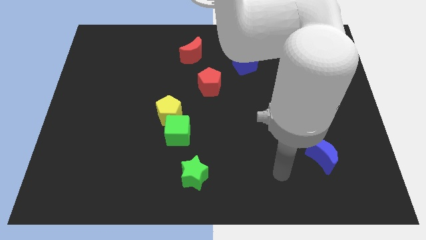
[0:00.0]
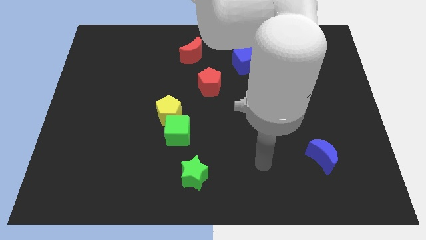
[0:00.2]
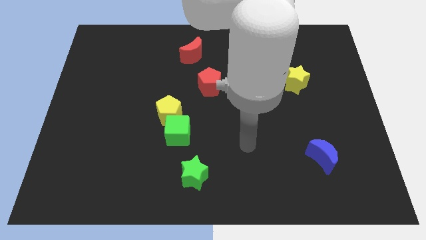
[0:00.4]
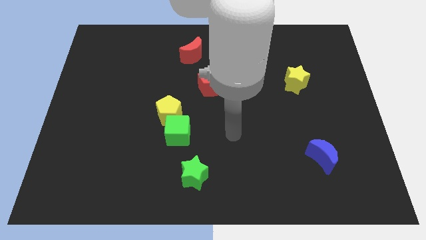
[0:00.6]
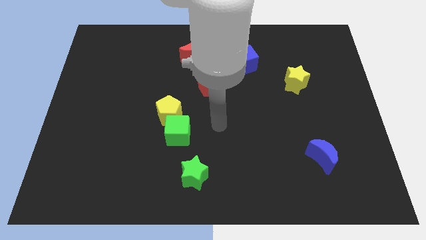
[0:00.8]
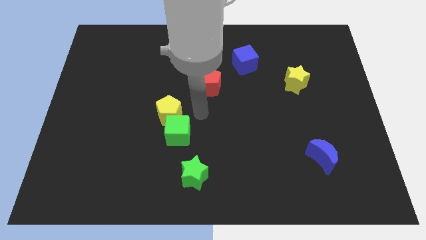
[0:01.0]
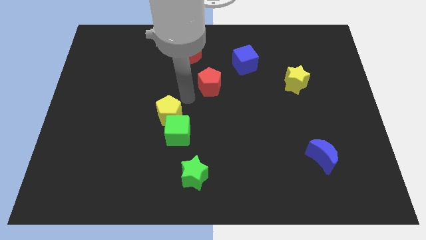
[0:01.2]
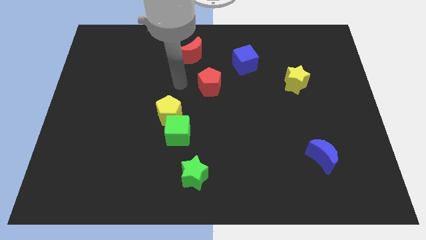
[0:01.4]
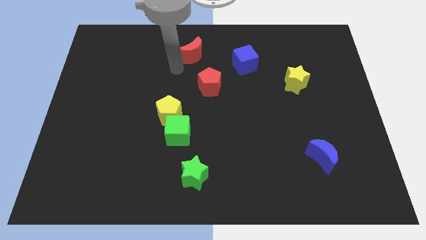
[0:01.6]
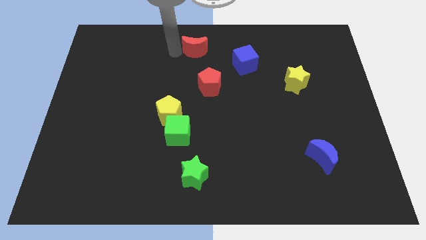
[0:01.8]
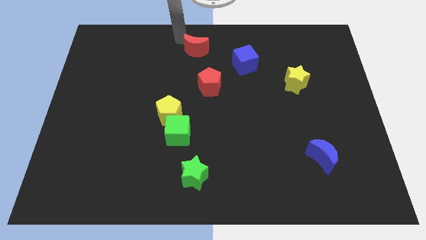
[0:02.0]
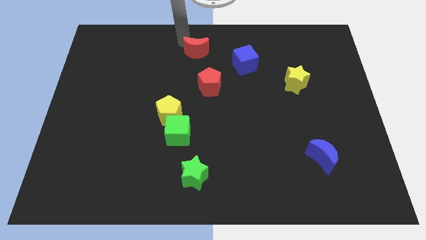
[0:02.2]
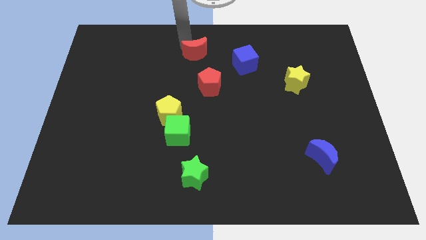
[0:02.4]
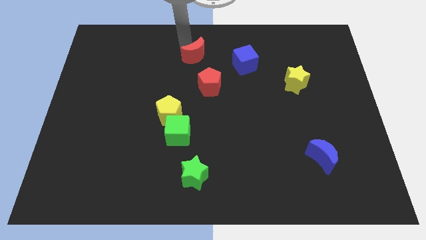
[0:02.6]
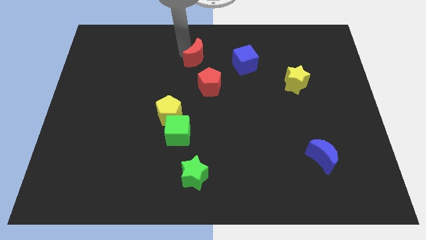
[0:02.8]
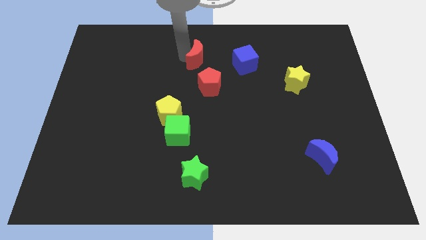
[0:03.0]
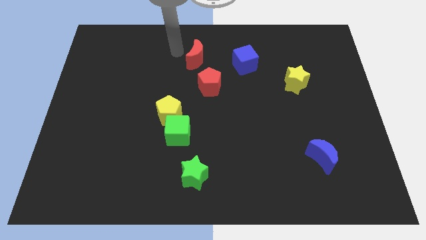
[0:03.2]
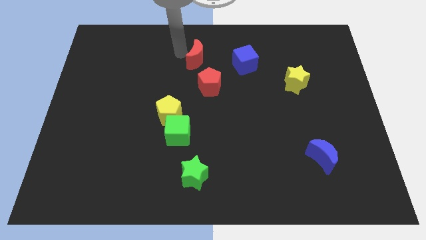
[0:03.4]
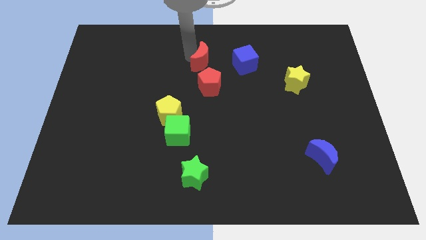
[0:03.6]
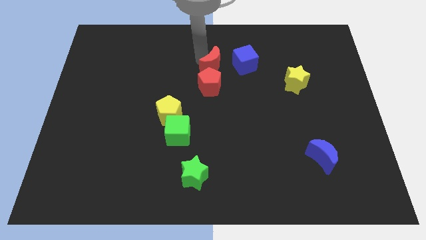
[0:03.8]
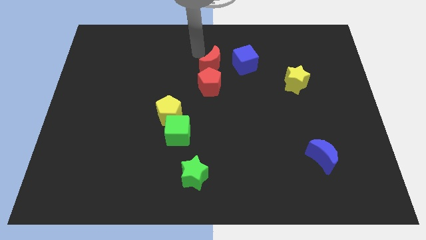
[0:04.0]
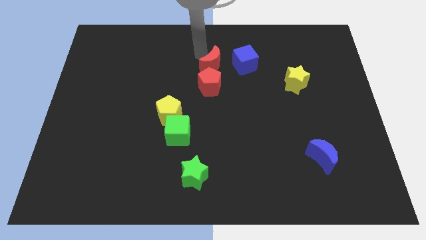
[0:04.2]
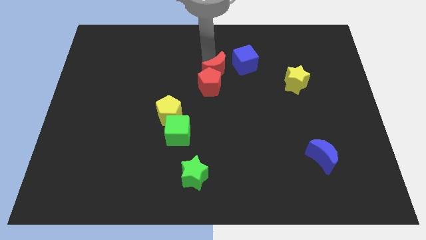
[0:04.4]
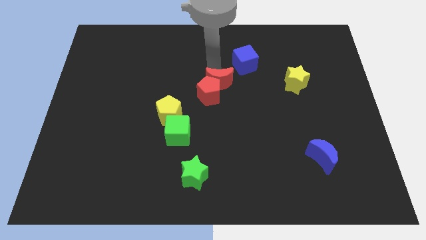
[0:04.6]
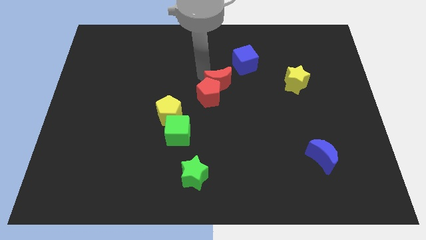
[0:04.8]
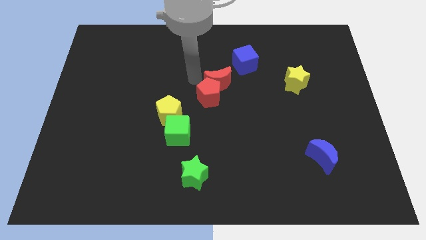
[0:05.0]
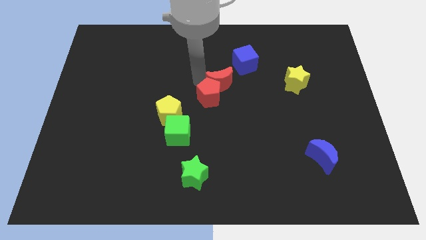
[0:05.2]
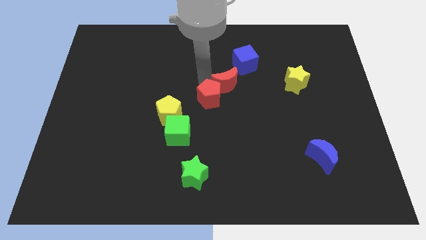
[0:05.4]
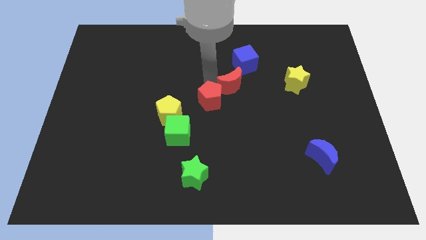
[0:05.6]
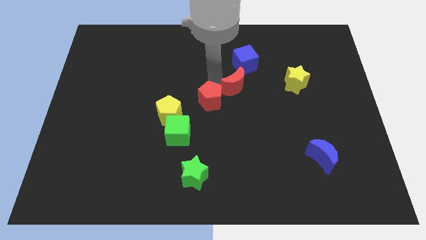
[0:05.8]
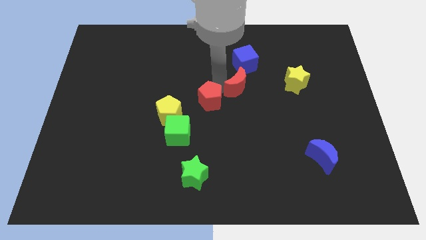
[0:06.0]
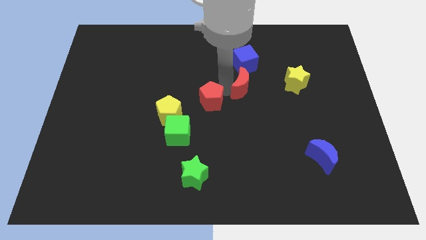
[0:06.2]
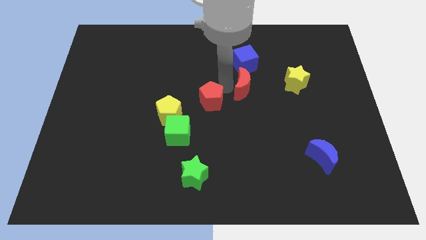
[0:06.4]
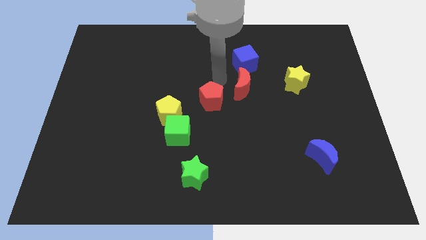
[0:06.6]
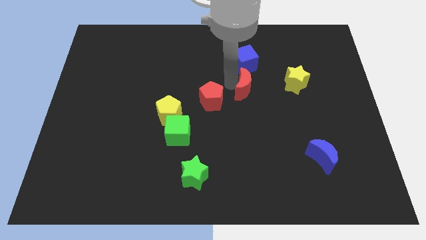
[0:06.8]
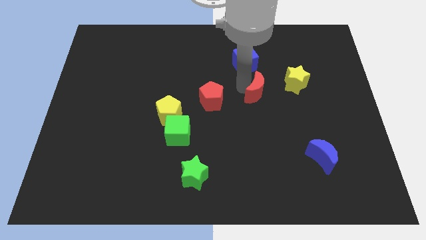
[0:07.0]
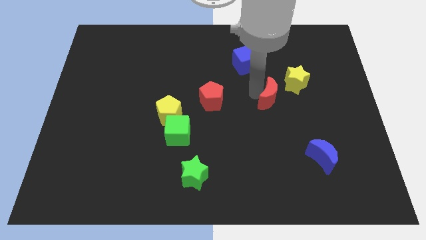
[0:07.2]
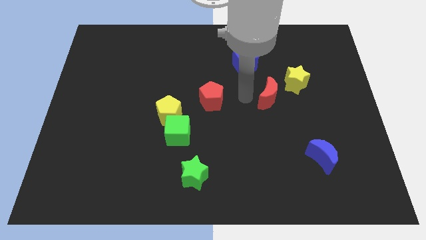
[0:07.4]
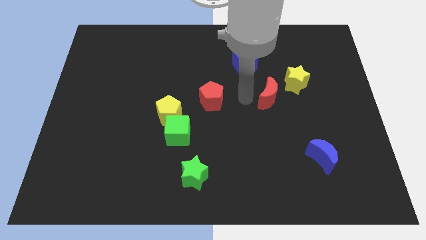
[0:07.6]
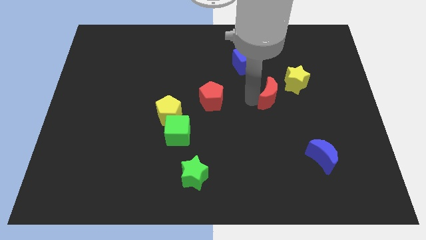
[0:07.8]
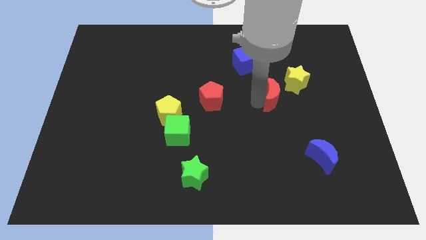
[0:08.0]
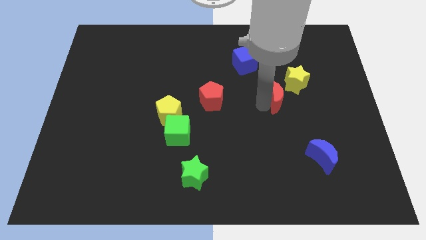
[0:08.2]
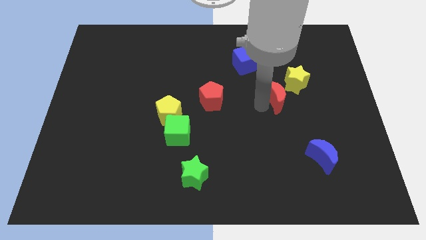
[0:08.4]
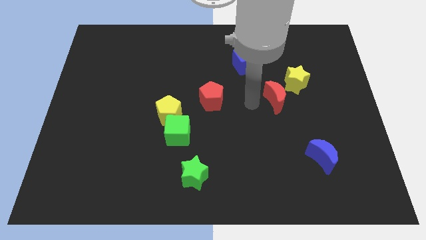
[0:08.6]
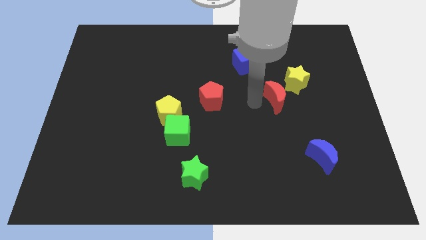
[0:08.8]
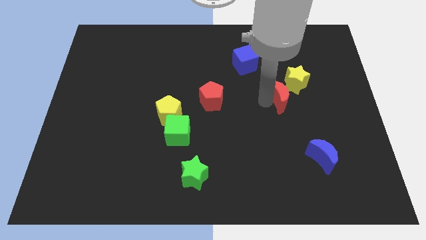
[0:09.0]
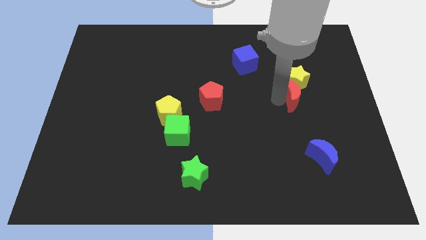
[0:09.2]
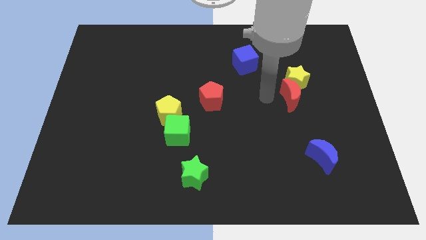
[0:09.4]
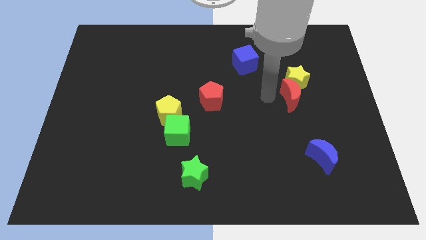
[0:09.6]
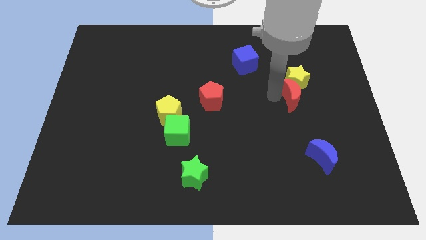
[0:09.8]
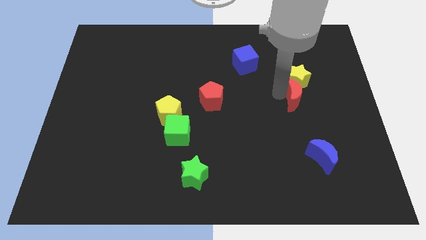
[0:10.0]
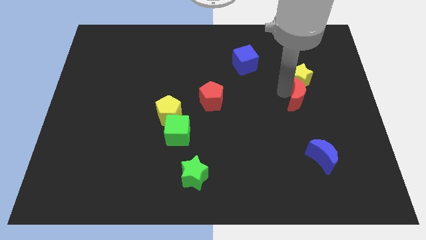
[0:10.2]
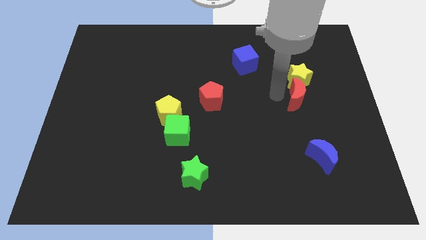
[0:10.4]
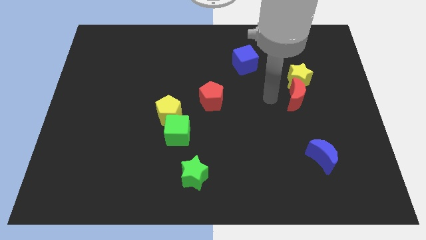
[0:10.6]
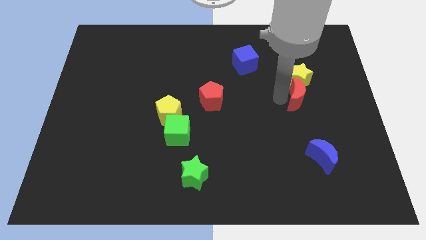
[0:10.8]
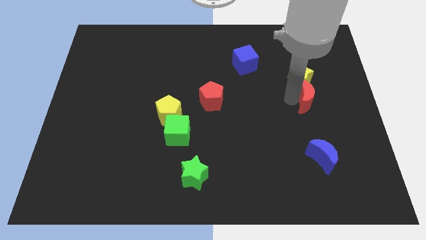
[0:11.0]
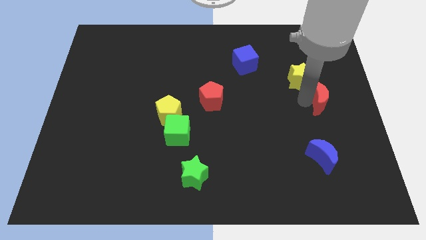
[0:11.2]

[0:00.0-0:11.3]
put the red moon to the right side

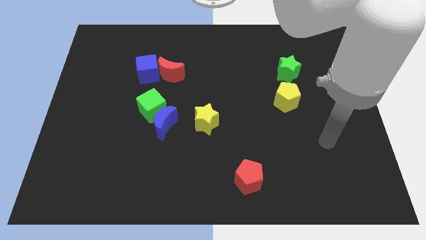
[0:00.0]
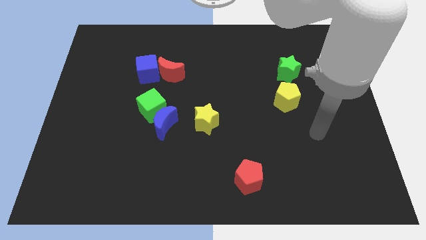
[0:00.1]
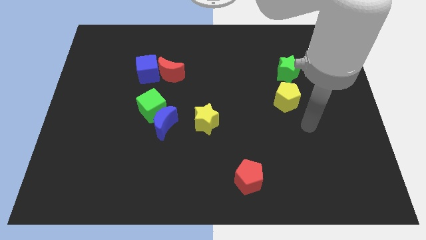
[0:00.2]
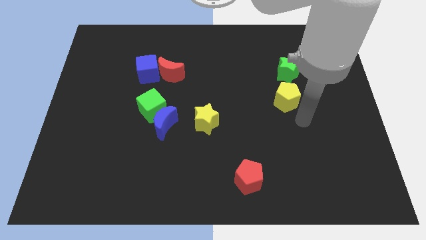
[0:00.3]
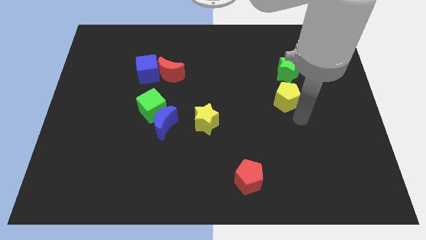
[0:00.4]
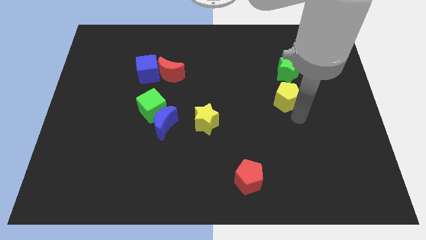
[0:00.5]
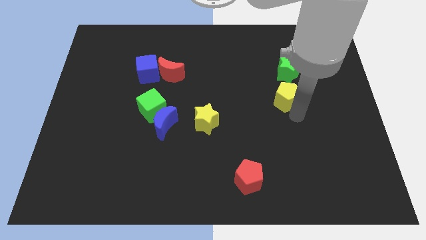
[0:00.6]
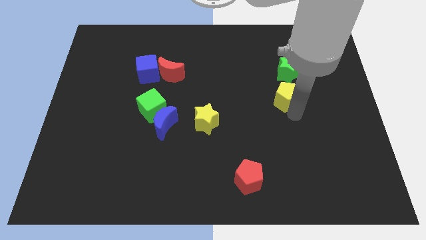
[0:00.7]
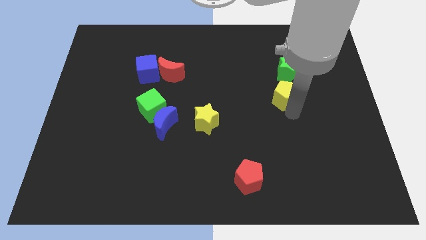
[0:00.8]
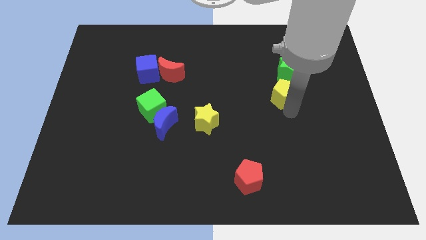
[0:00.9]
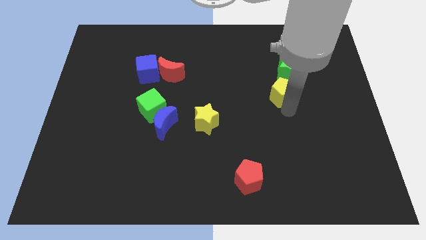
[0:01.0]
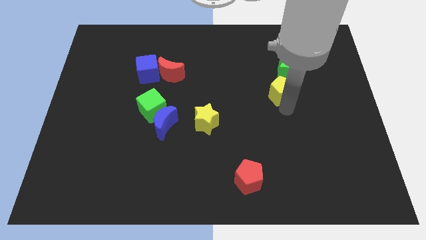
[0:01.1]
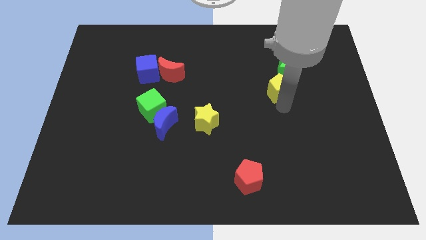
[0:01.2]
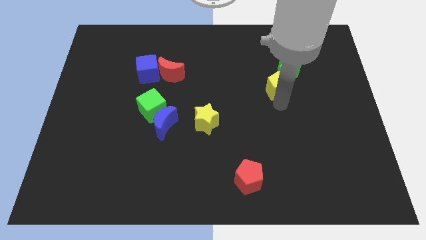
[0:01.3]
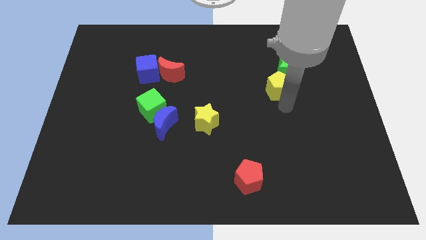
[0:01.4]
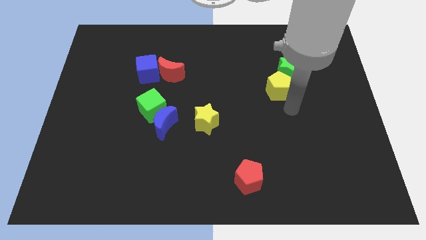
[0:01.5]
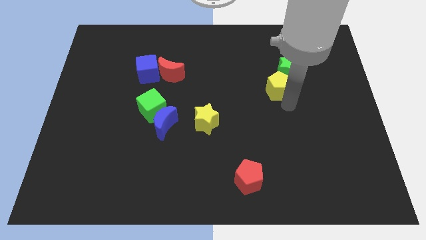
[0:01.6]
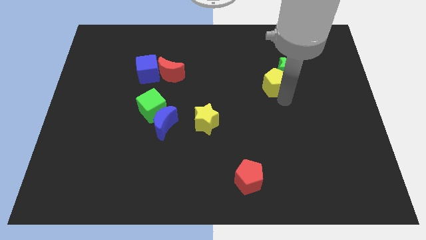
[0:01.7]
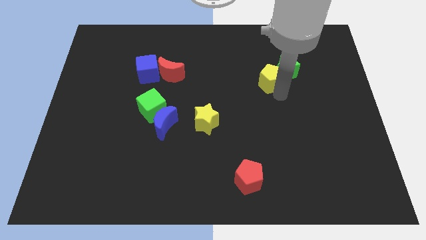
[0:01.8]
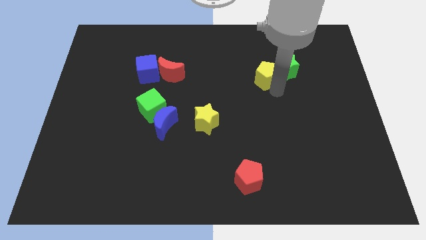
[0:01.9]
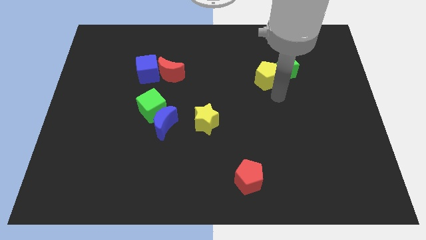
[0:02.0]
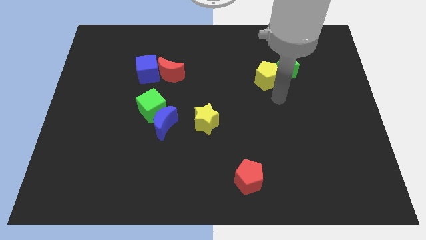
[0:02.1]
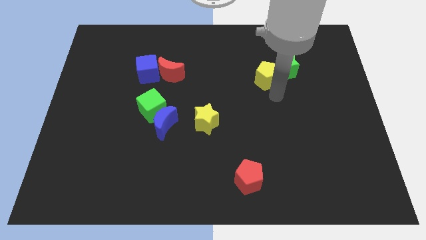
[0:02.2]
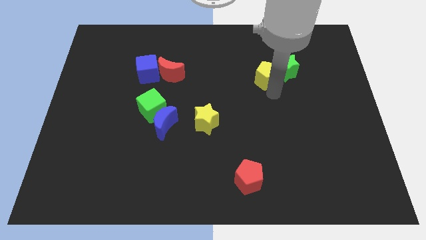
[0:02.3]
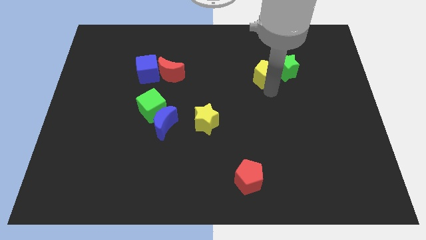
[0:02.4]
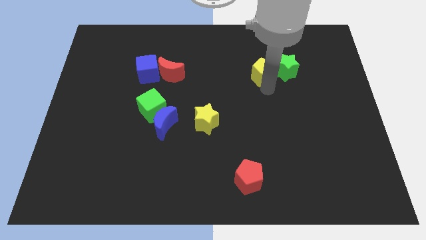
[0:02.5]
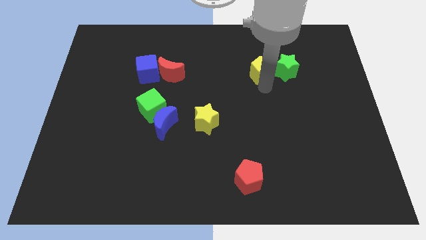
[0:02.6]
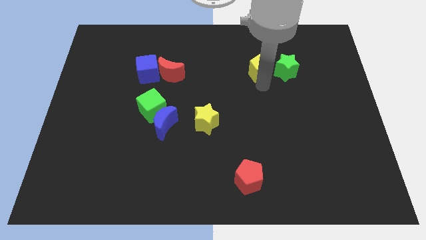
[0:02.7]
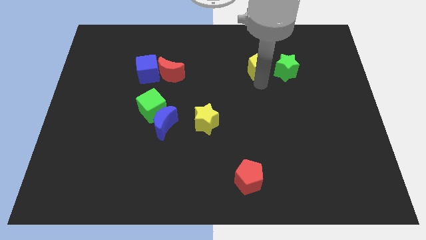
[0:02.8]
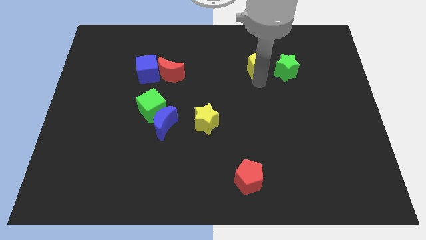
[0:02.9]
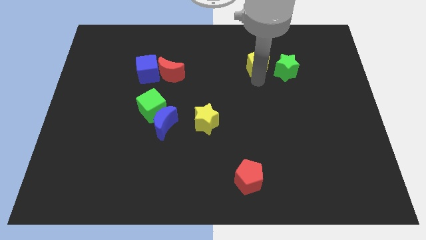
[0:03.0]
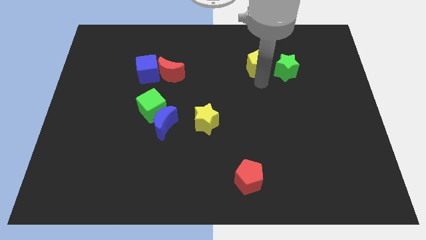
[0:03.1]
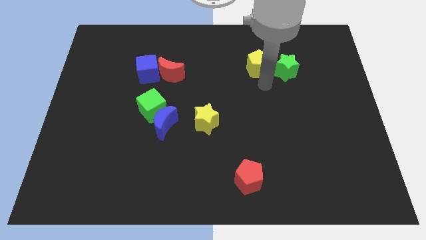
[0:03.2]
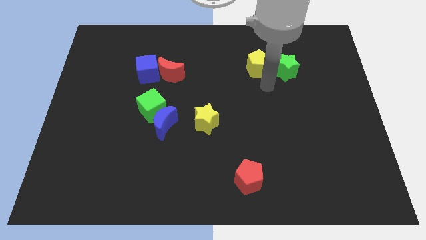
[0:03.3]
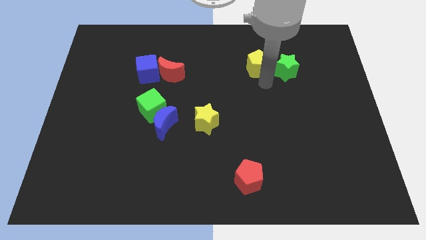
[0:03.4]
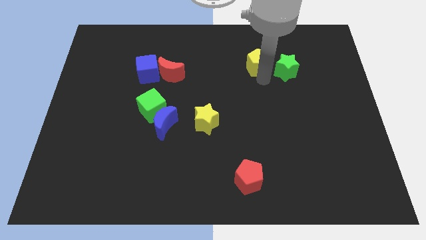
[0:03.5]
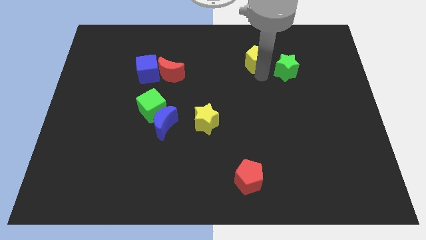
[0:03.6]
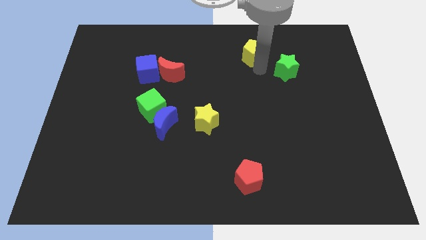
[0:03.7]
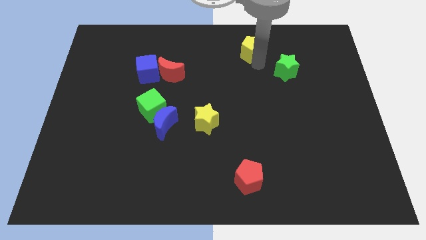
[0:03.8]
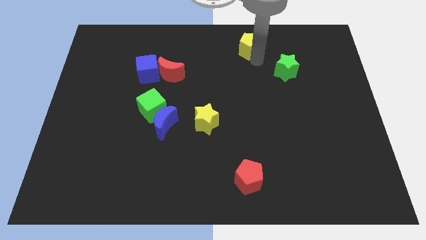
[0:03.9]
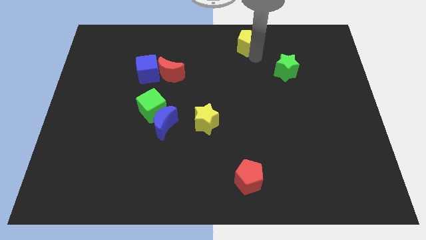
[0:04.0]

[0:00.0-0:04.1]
slide the yellow pentagon to the top side
